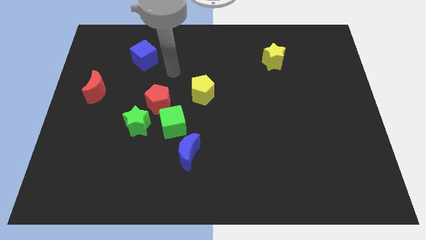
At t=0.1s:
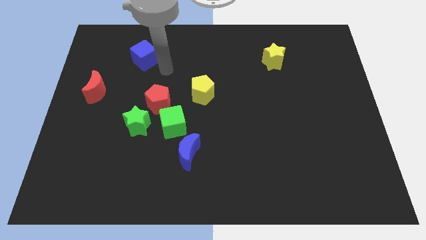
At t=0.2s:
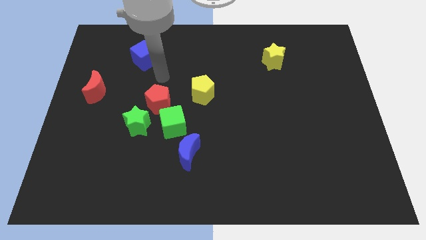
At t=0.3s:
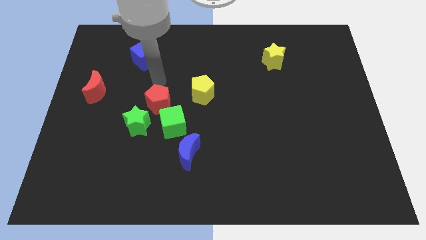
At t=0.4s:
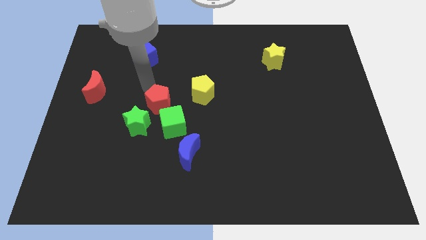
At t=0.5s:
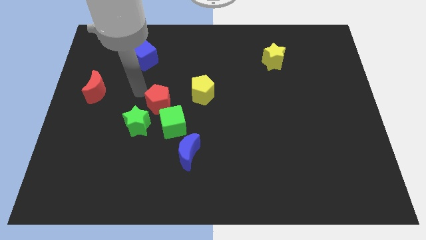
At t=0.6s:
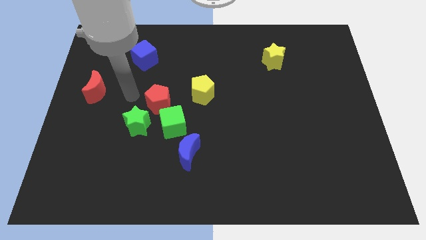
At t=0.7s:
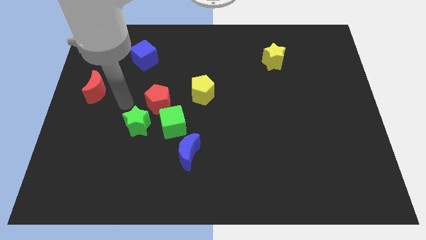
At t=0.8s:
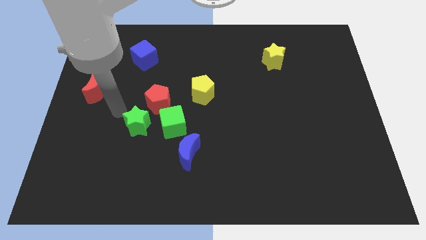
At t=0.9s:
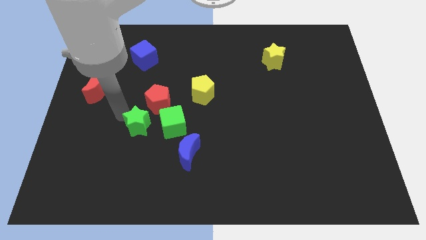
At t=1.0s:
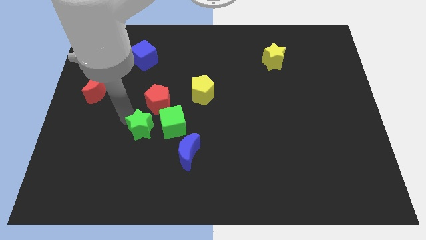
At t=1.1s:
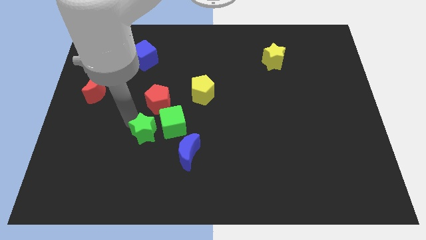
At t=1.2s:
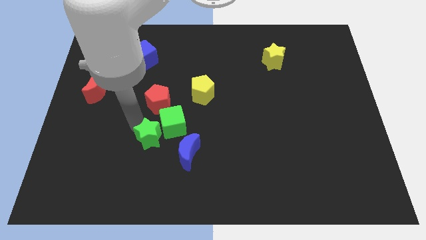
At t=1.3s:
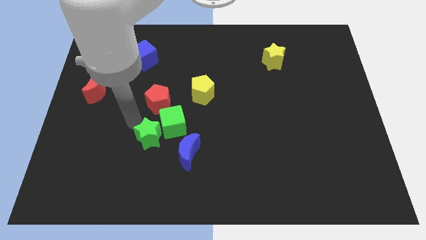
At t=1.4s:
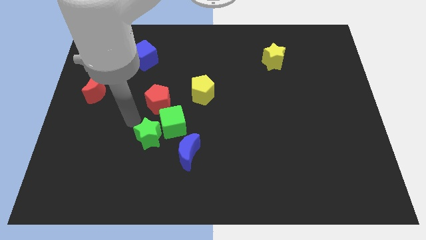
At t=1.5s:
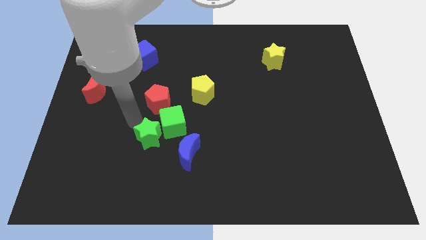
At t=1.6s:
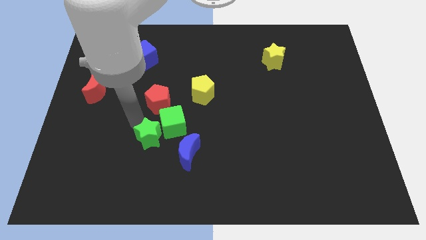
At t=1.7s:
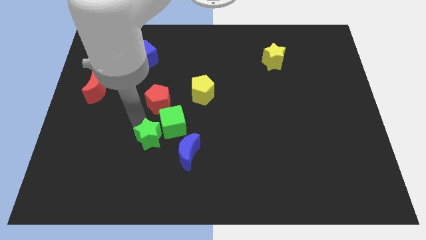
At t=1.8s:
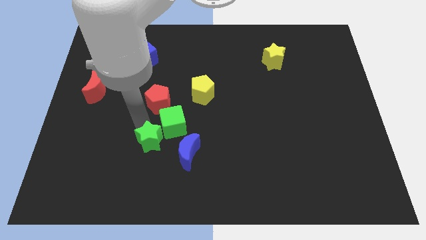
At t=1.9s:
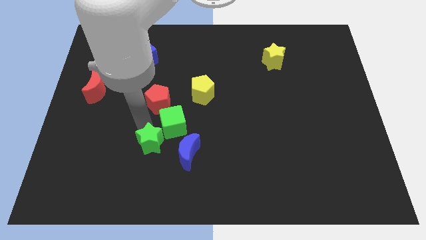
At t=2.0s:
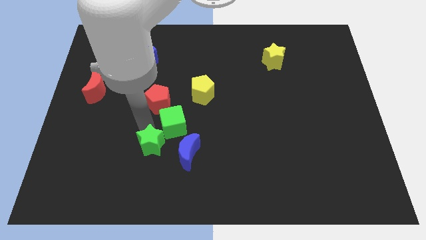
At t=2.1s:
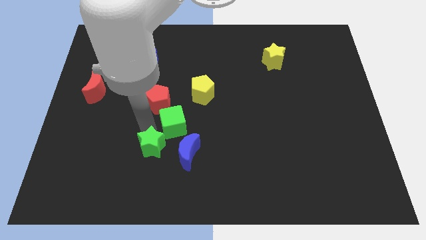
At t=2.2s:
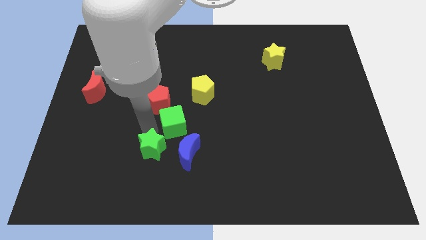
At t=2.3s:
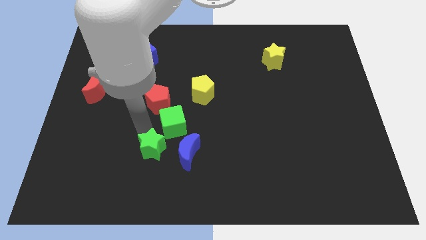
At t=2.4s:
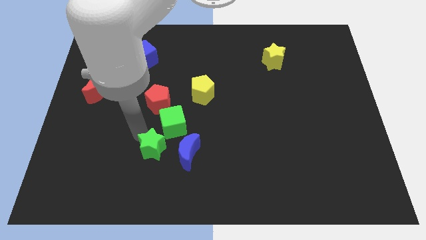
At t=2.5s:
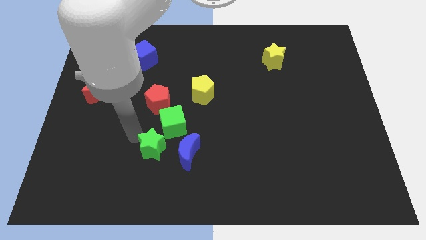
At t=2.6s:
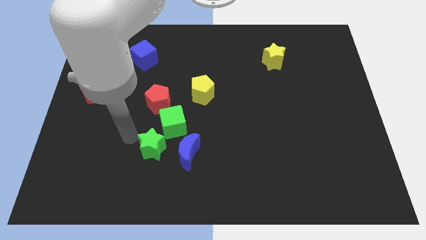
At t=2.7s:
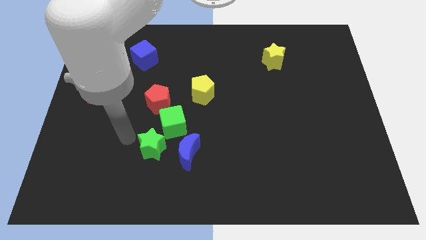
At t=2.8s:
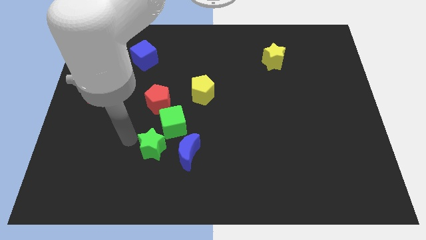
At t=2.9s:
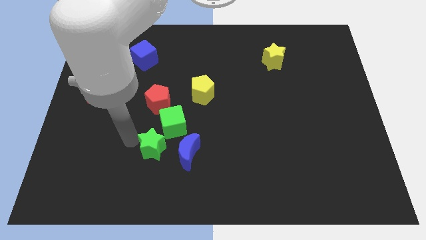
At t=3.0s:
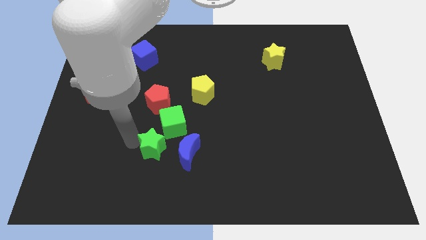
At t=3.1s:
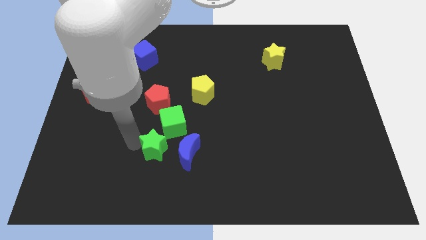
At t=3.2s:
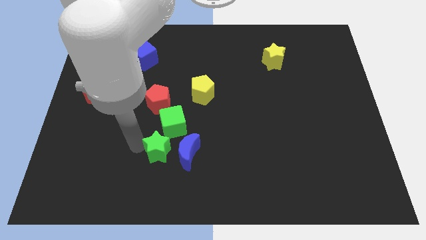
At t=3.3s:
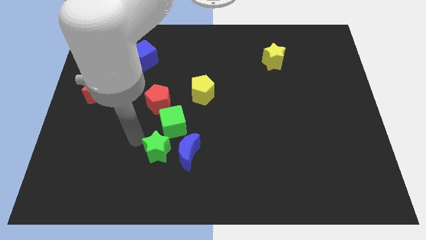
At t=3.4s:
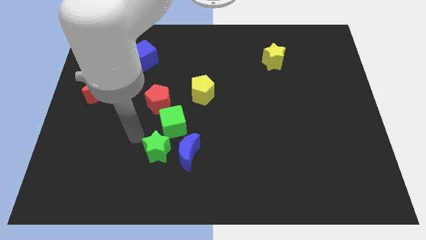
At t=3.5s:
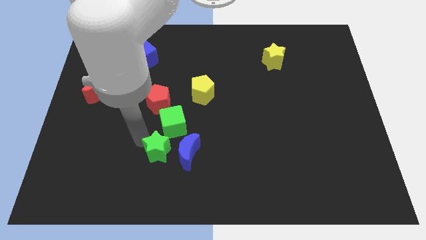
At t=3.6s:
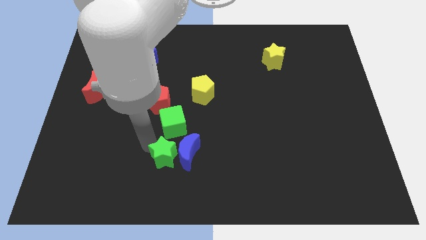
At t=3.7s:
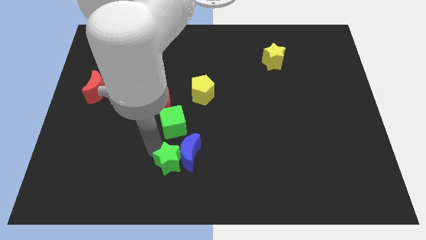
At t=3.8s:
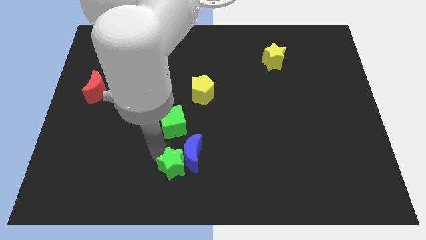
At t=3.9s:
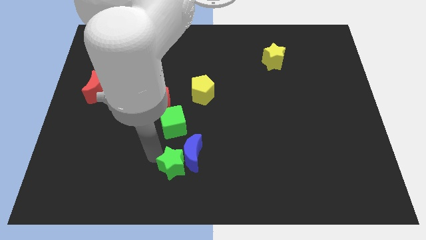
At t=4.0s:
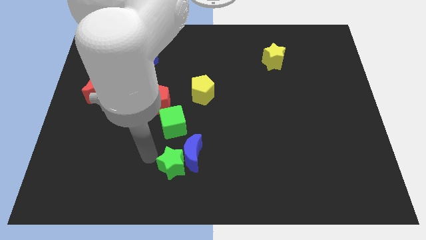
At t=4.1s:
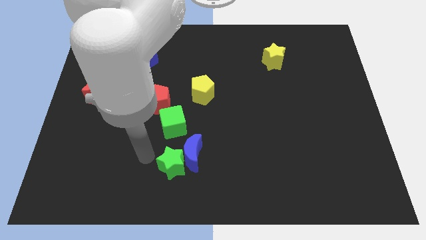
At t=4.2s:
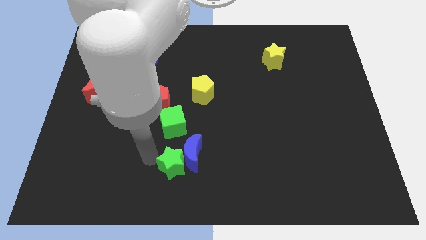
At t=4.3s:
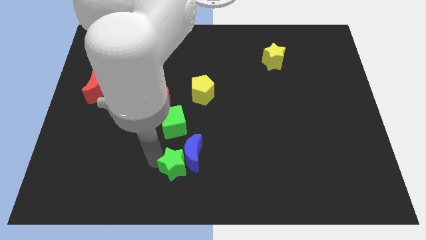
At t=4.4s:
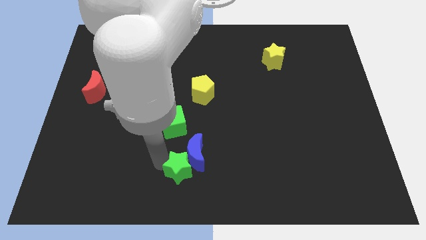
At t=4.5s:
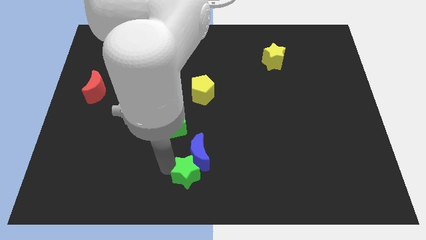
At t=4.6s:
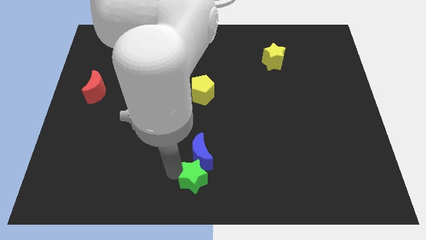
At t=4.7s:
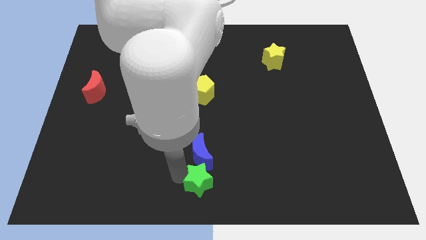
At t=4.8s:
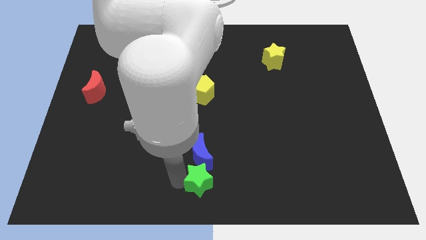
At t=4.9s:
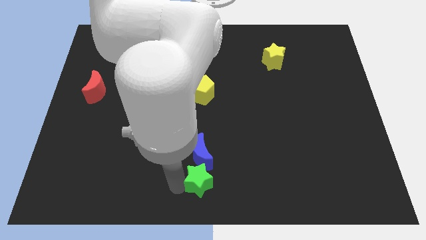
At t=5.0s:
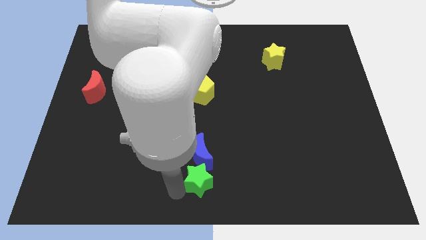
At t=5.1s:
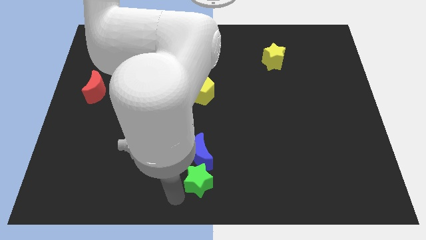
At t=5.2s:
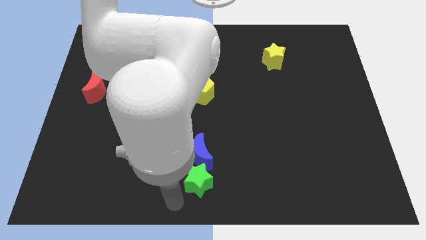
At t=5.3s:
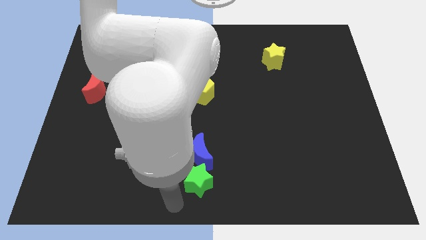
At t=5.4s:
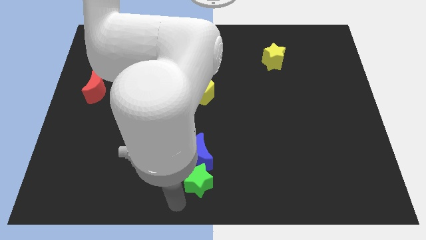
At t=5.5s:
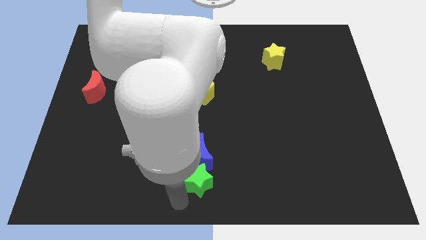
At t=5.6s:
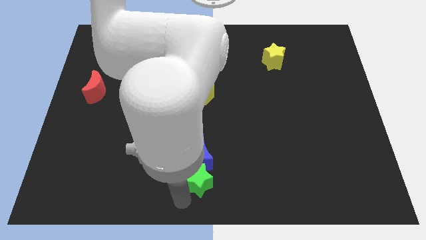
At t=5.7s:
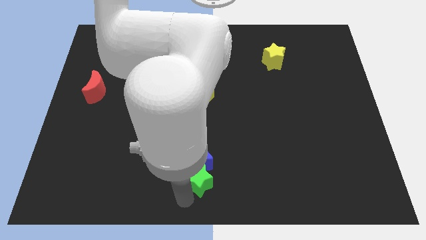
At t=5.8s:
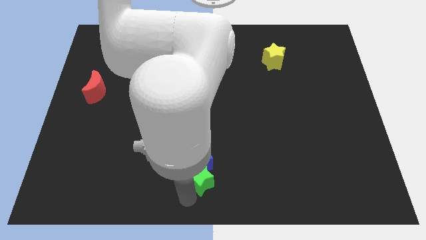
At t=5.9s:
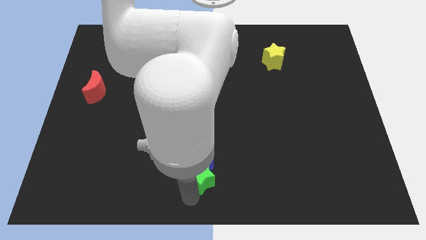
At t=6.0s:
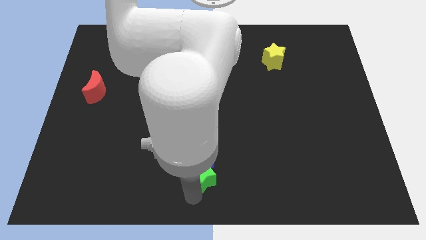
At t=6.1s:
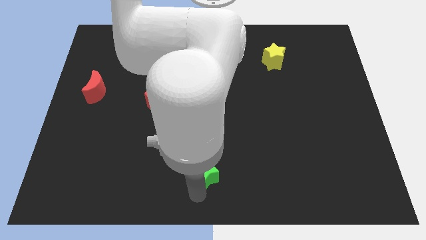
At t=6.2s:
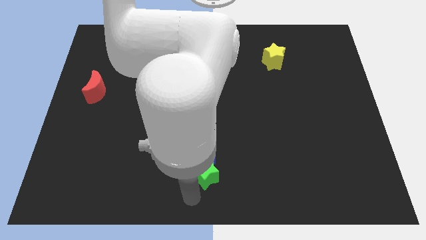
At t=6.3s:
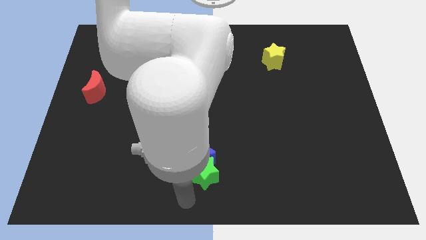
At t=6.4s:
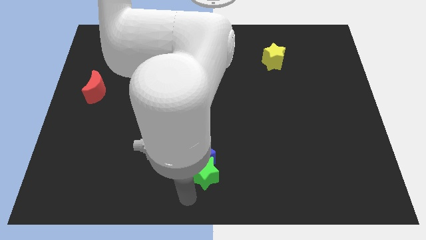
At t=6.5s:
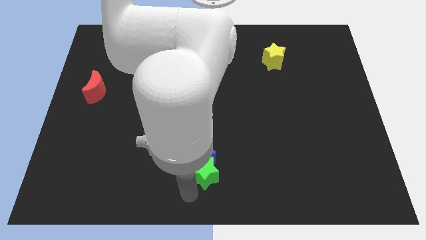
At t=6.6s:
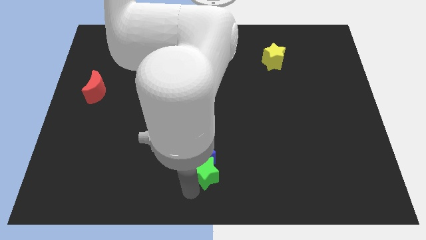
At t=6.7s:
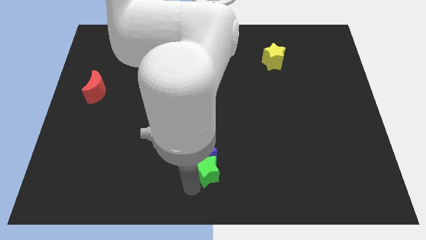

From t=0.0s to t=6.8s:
slightly move the green star to the right

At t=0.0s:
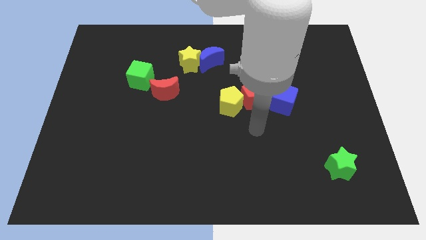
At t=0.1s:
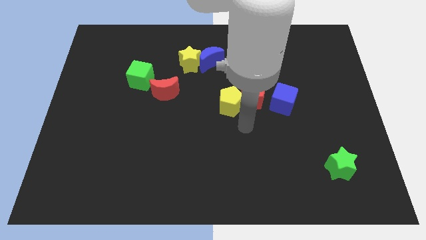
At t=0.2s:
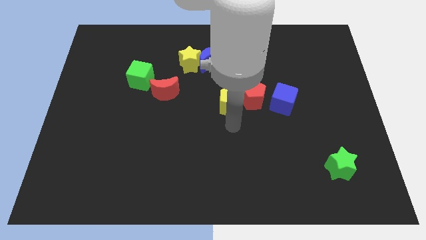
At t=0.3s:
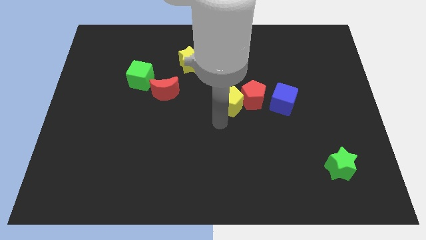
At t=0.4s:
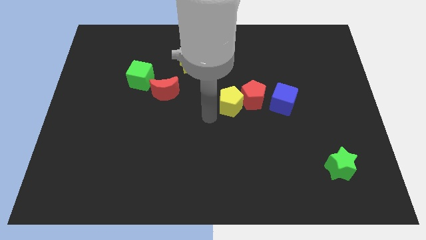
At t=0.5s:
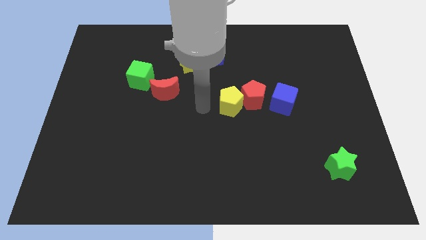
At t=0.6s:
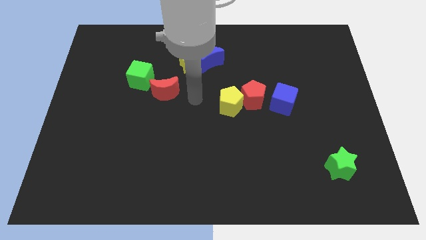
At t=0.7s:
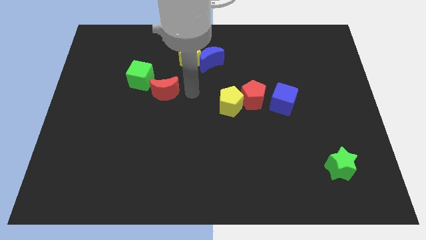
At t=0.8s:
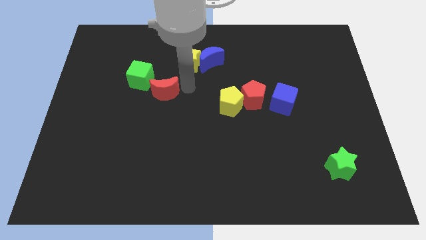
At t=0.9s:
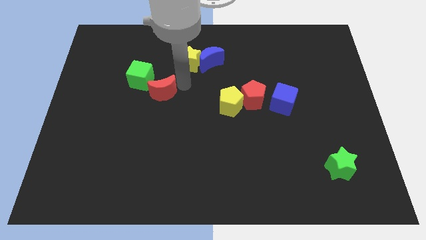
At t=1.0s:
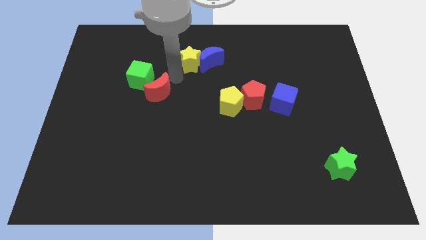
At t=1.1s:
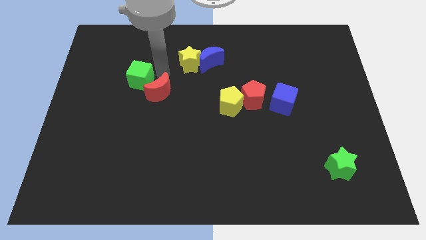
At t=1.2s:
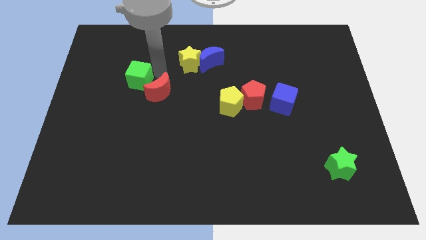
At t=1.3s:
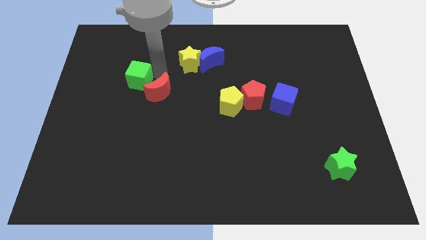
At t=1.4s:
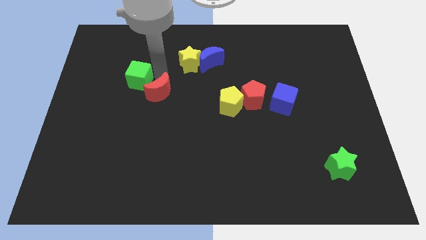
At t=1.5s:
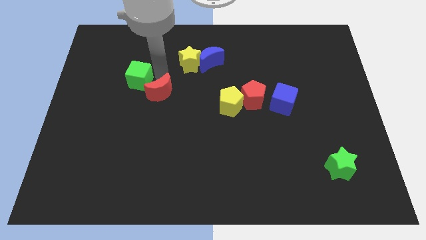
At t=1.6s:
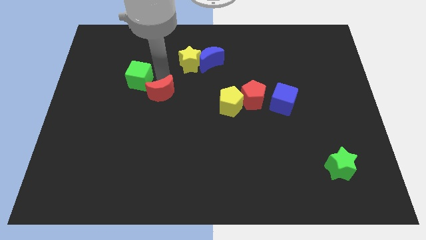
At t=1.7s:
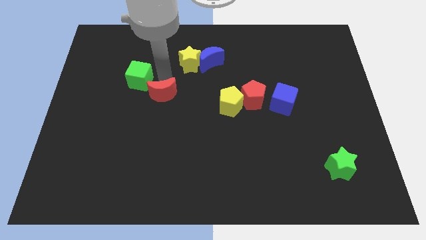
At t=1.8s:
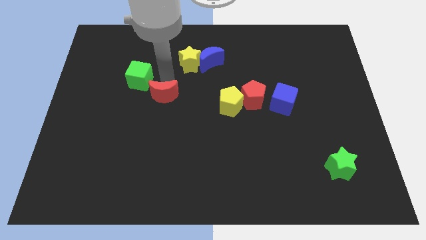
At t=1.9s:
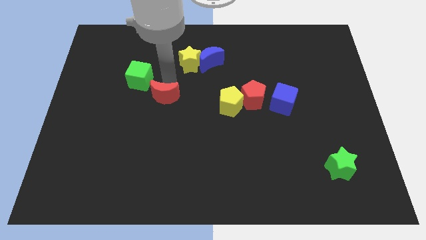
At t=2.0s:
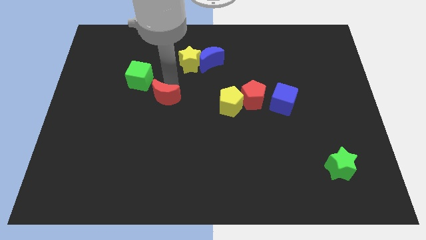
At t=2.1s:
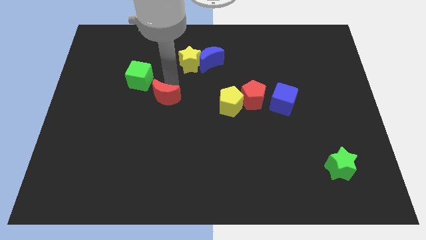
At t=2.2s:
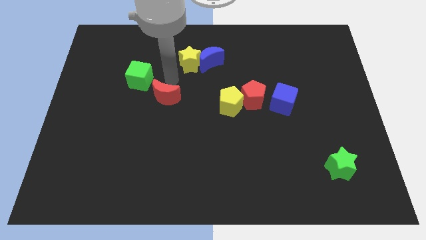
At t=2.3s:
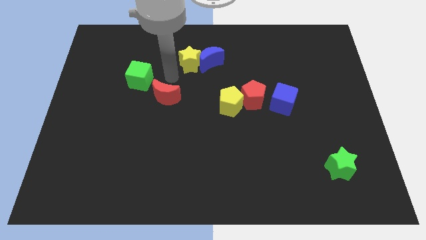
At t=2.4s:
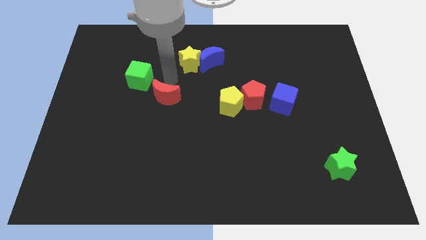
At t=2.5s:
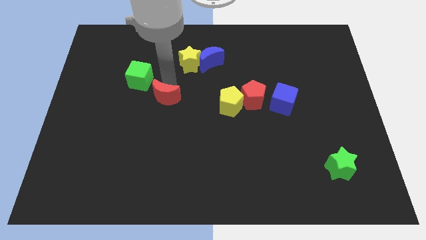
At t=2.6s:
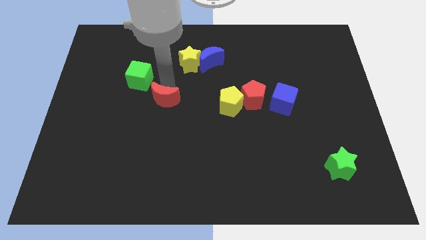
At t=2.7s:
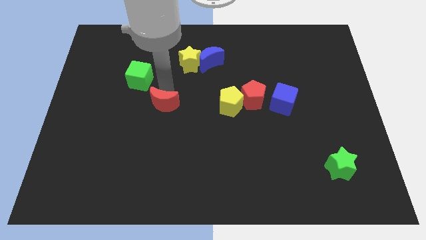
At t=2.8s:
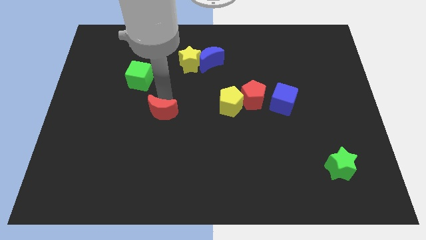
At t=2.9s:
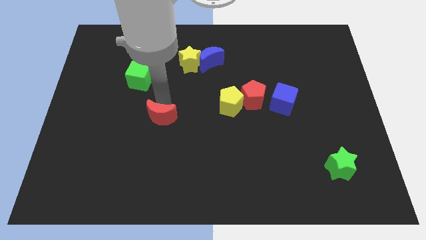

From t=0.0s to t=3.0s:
move the red moon a bit down
